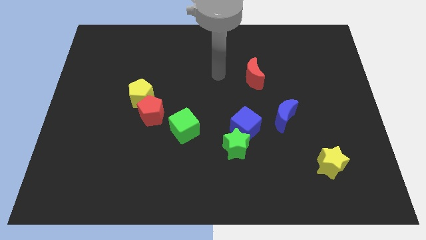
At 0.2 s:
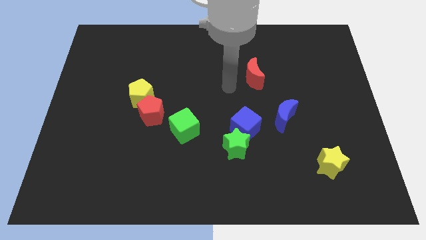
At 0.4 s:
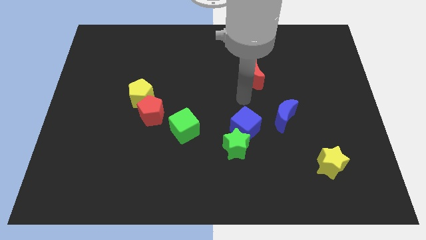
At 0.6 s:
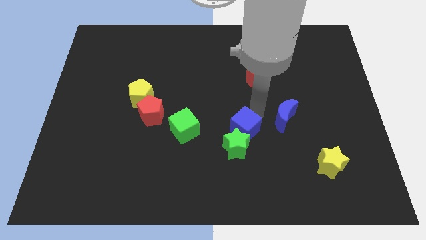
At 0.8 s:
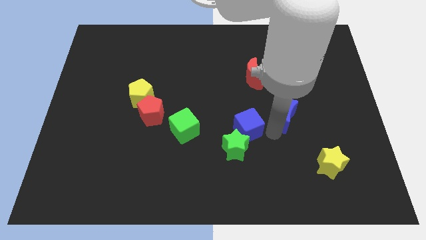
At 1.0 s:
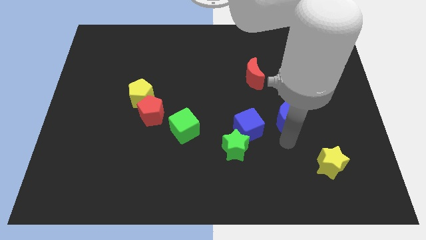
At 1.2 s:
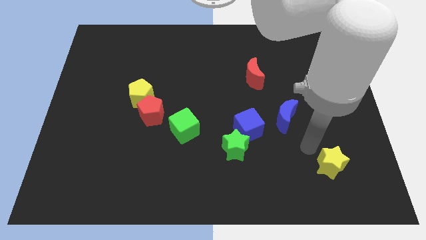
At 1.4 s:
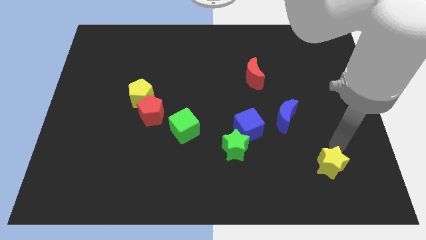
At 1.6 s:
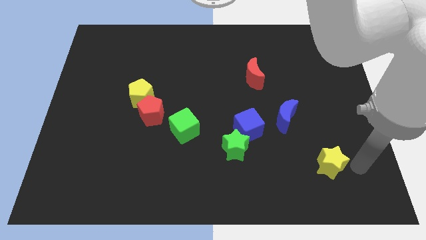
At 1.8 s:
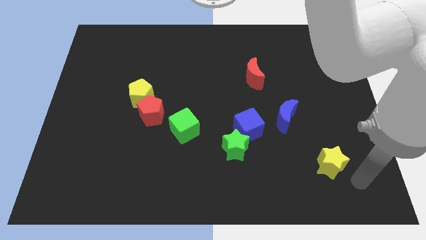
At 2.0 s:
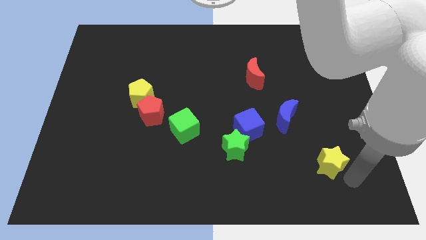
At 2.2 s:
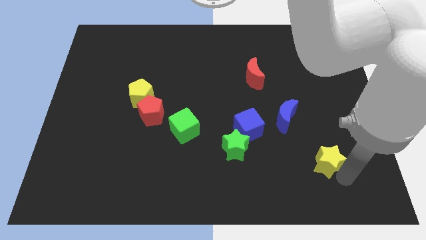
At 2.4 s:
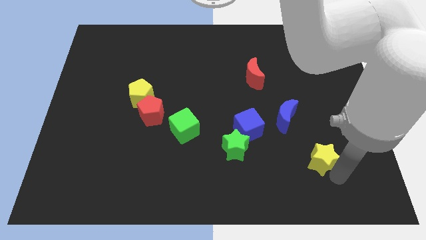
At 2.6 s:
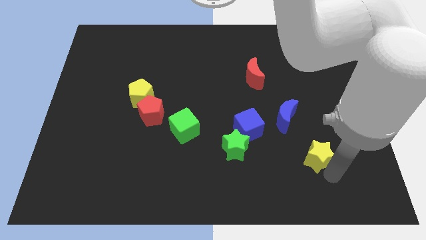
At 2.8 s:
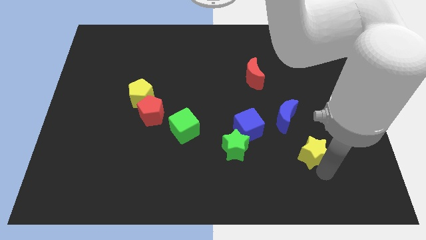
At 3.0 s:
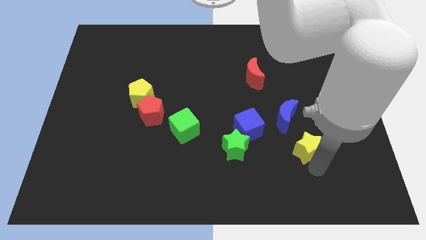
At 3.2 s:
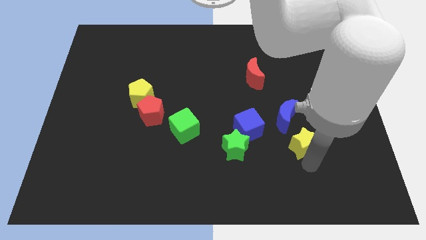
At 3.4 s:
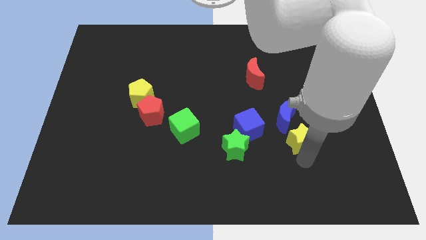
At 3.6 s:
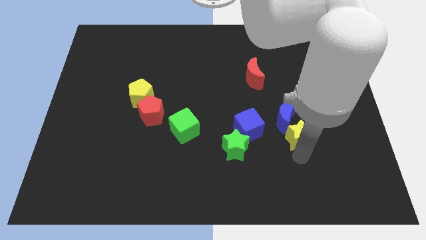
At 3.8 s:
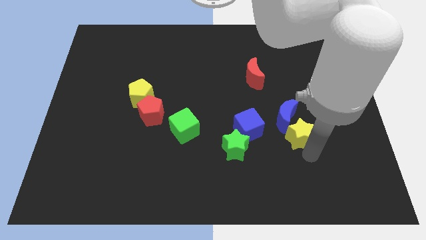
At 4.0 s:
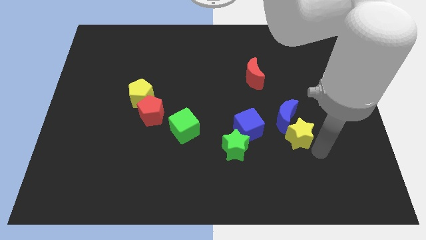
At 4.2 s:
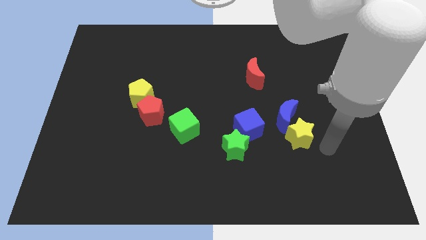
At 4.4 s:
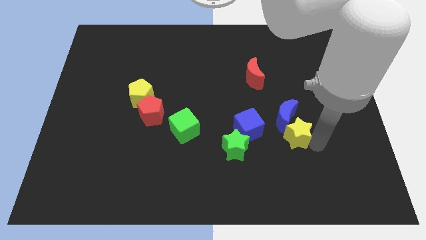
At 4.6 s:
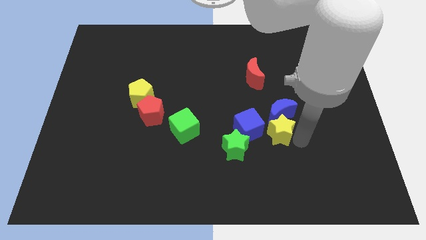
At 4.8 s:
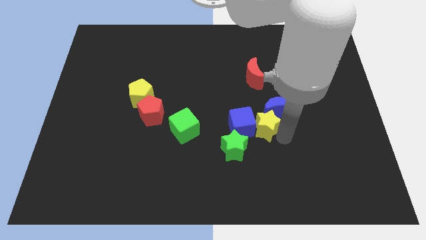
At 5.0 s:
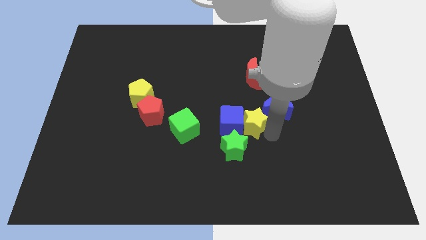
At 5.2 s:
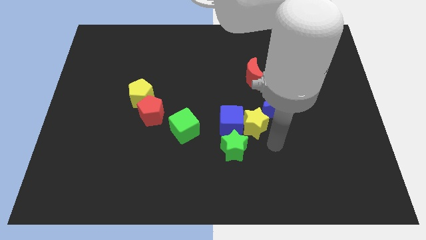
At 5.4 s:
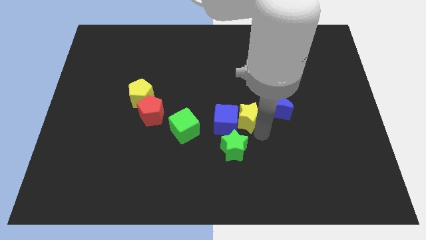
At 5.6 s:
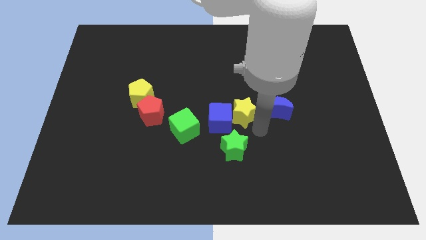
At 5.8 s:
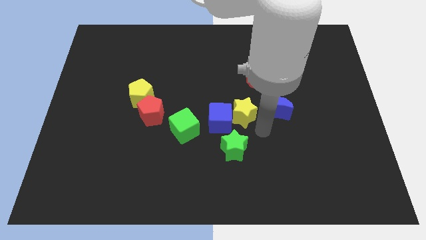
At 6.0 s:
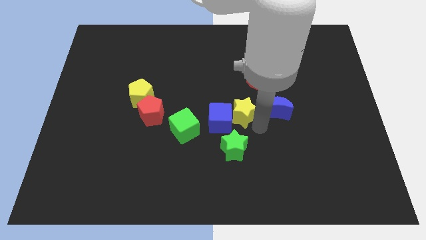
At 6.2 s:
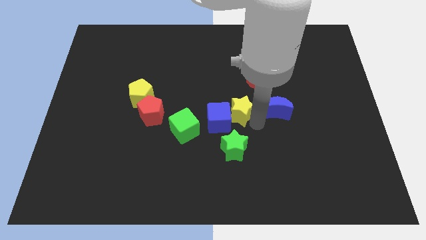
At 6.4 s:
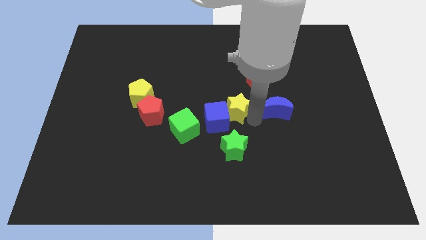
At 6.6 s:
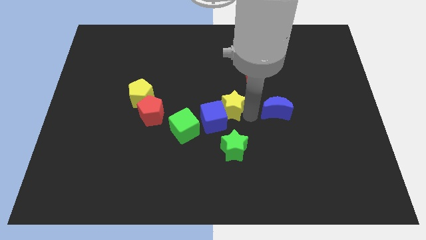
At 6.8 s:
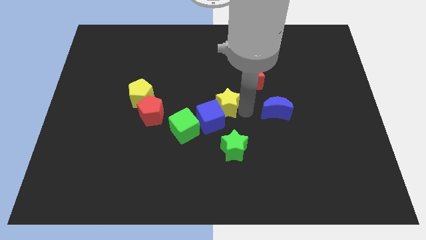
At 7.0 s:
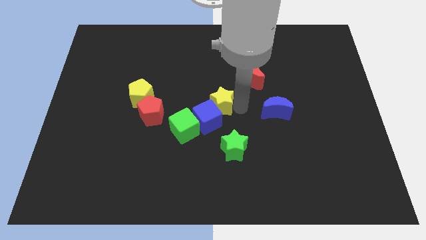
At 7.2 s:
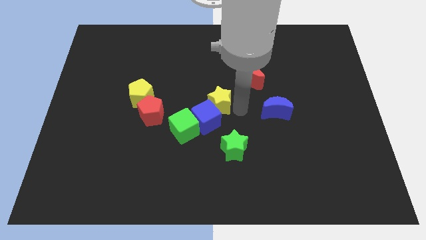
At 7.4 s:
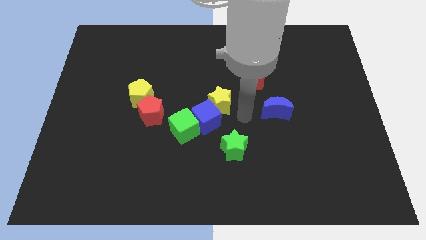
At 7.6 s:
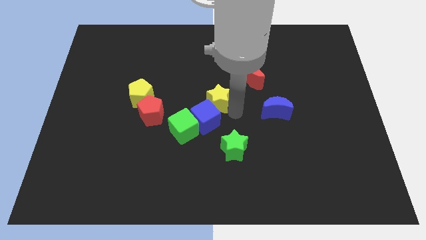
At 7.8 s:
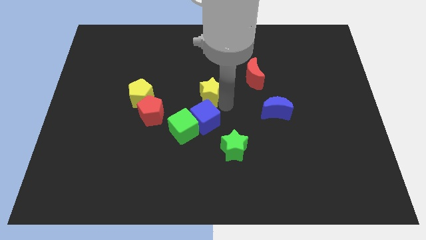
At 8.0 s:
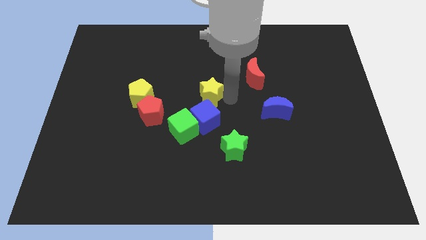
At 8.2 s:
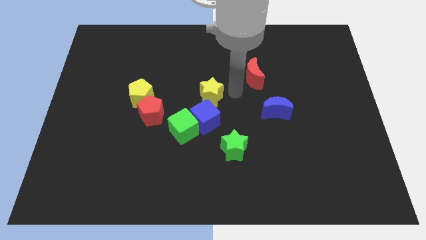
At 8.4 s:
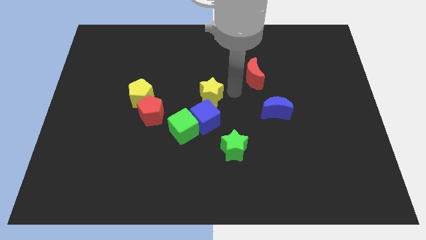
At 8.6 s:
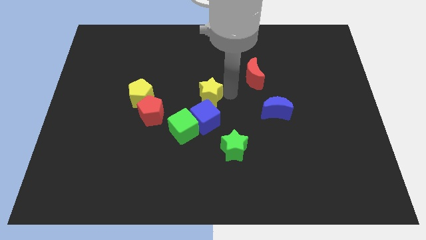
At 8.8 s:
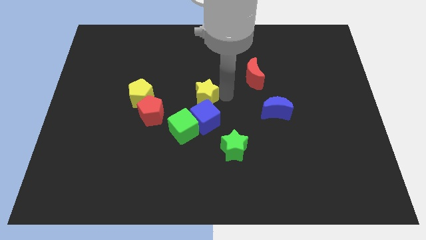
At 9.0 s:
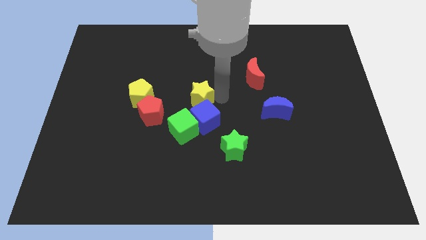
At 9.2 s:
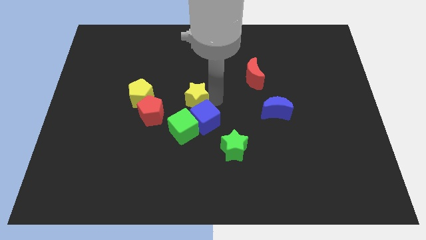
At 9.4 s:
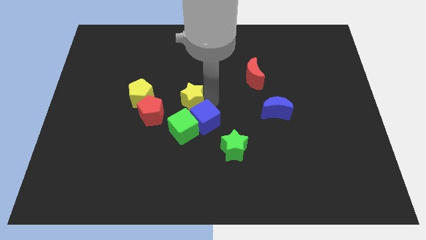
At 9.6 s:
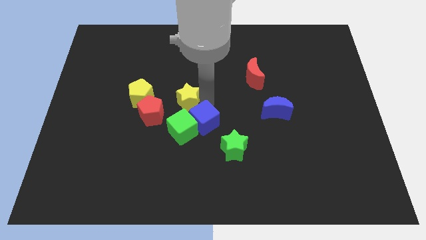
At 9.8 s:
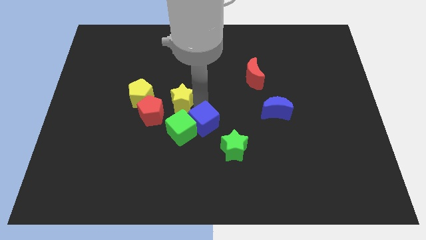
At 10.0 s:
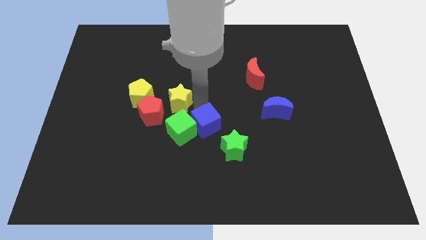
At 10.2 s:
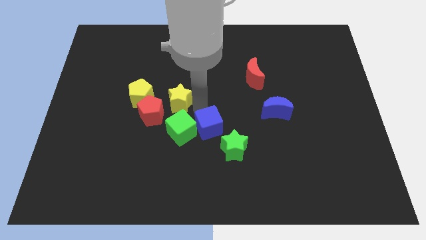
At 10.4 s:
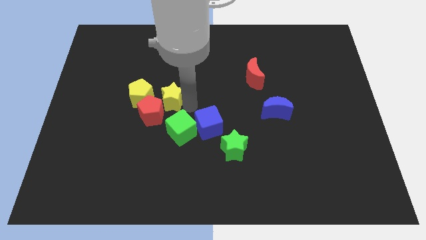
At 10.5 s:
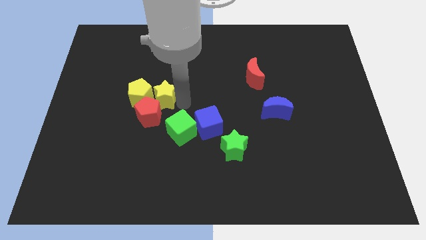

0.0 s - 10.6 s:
slide the yellow star towards the yellow pentagon
